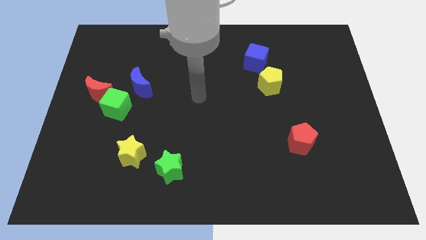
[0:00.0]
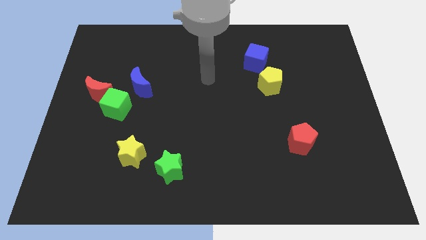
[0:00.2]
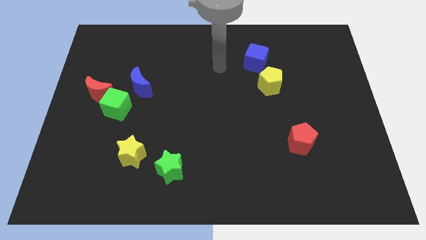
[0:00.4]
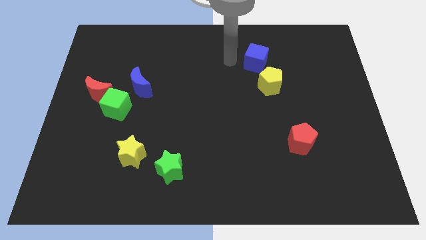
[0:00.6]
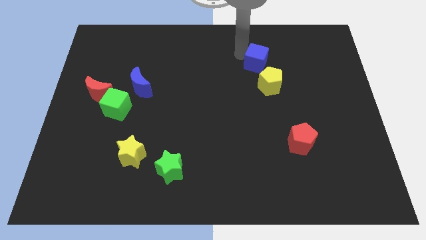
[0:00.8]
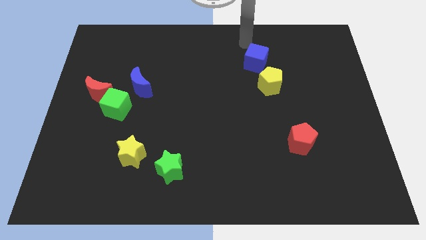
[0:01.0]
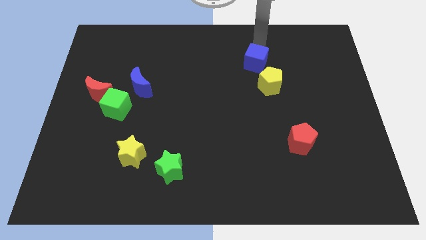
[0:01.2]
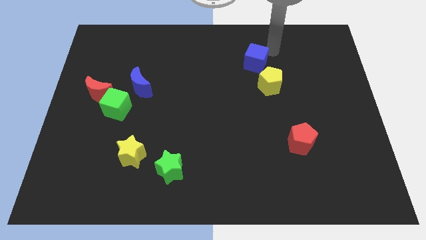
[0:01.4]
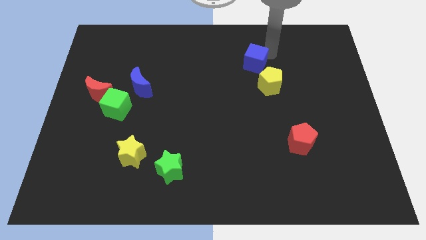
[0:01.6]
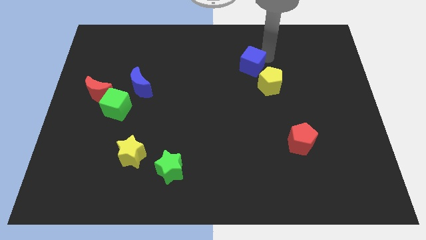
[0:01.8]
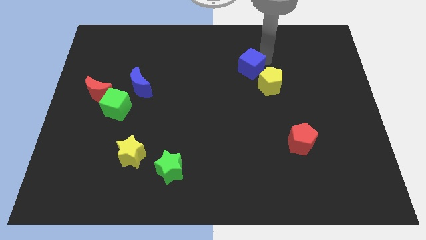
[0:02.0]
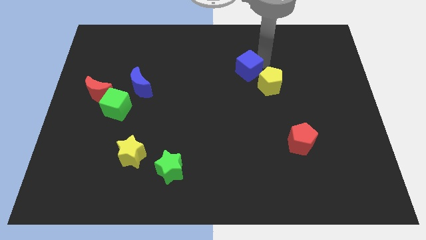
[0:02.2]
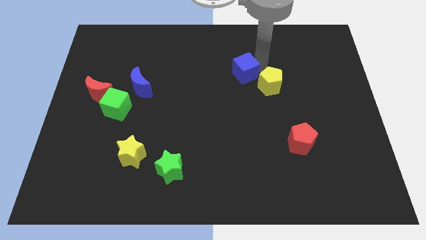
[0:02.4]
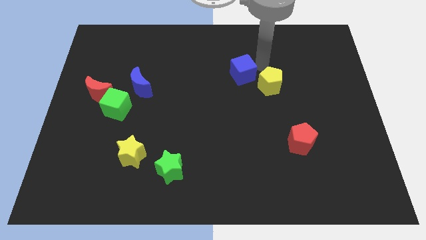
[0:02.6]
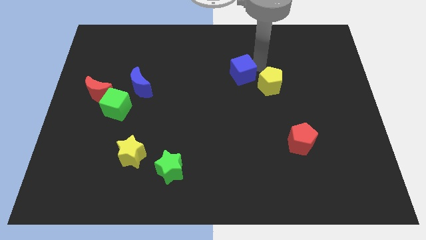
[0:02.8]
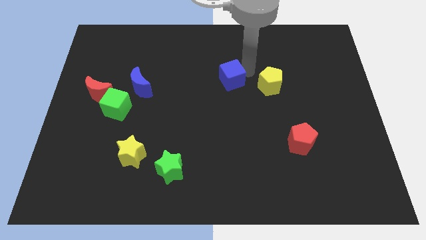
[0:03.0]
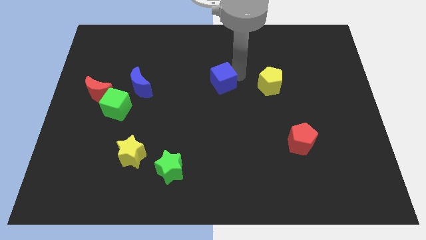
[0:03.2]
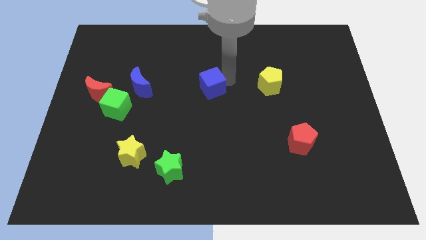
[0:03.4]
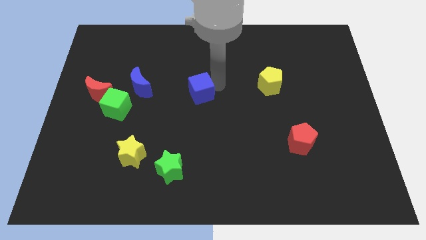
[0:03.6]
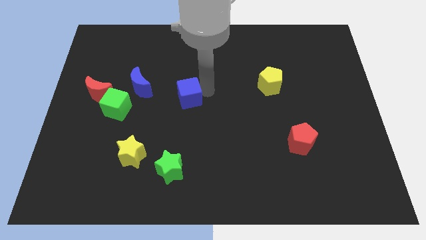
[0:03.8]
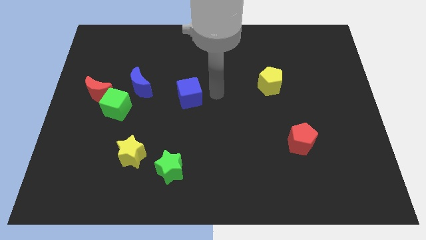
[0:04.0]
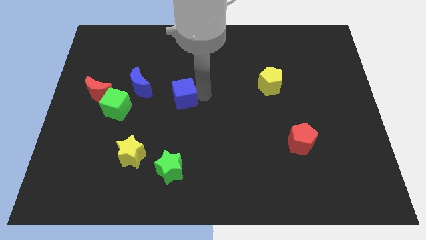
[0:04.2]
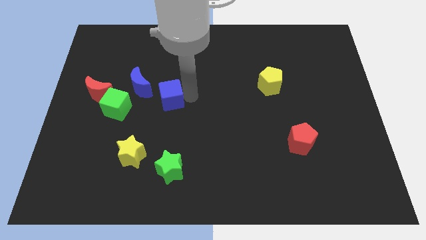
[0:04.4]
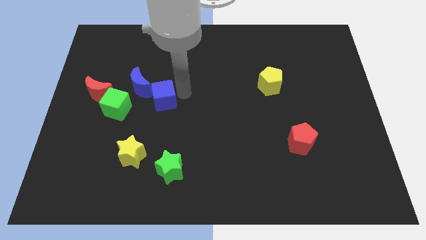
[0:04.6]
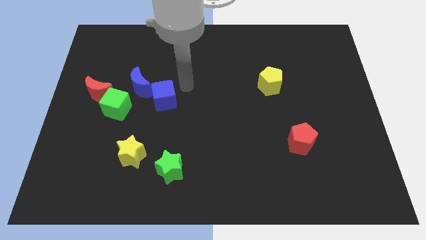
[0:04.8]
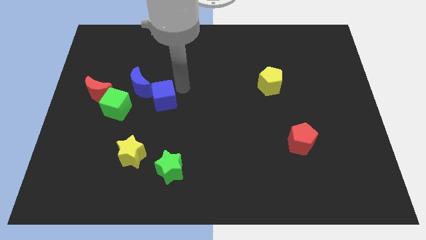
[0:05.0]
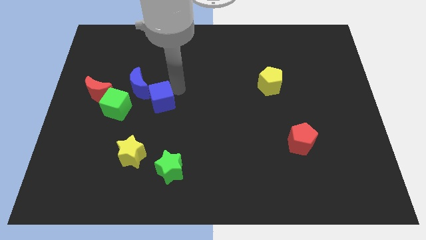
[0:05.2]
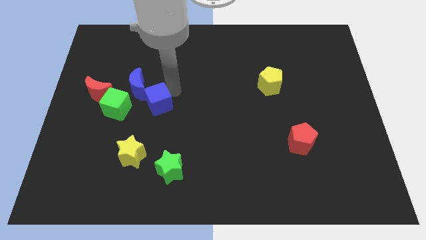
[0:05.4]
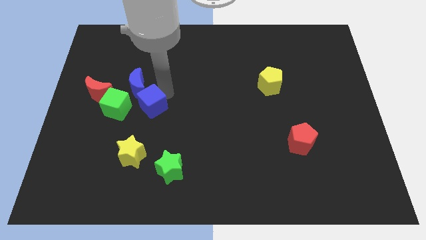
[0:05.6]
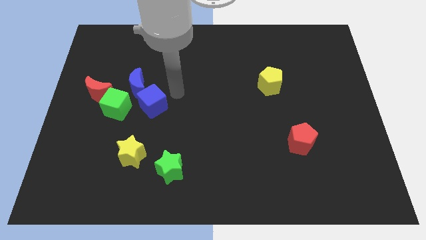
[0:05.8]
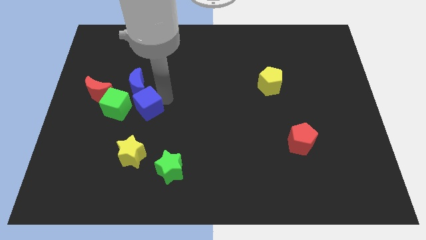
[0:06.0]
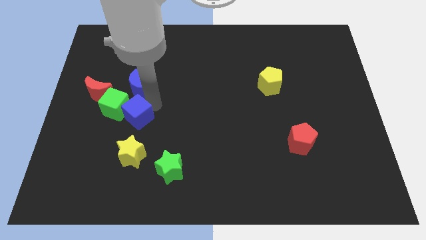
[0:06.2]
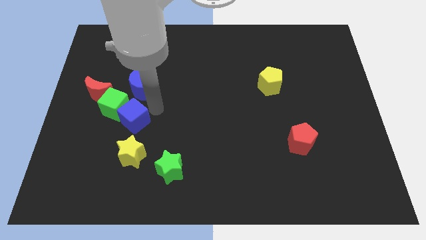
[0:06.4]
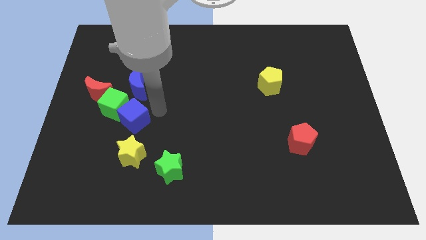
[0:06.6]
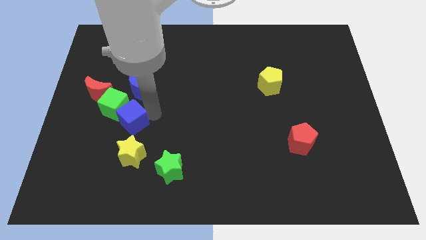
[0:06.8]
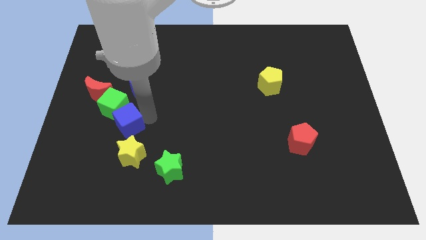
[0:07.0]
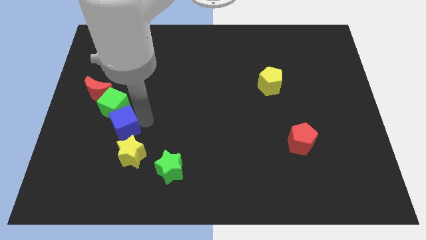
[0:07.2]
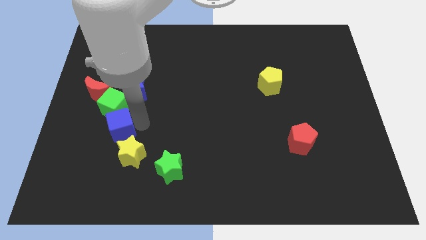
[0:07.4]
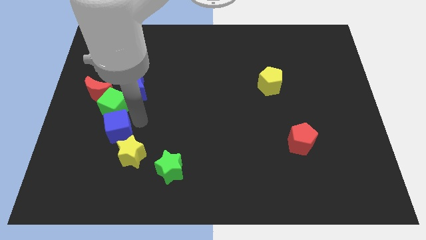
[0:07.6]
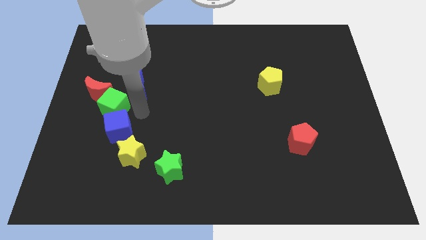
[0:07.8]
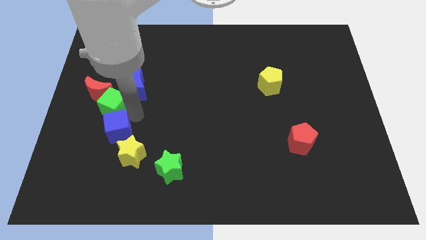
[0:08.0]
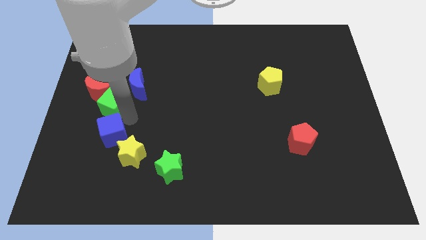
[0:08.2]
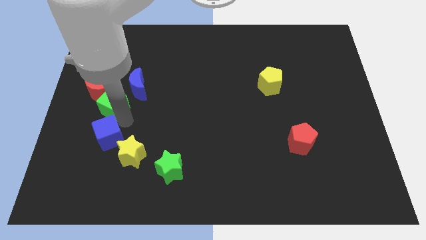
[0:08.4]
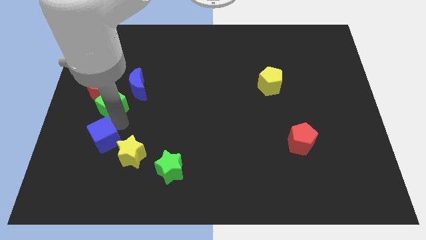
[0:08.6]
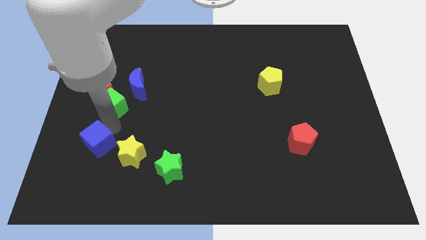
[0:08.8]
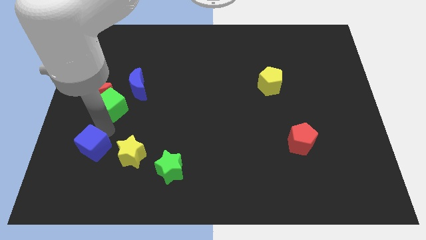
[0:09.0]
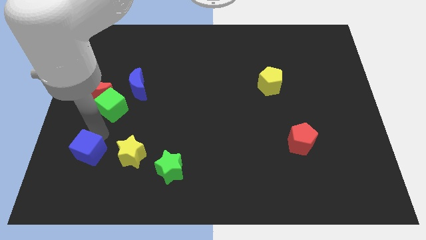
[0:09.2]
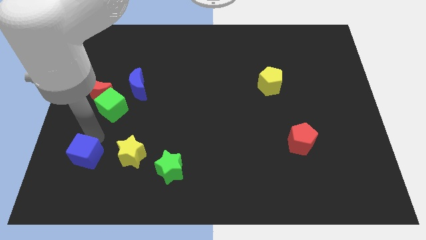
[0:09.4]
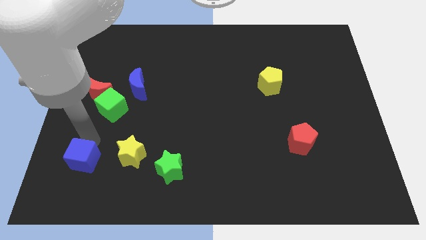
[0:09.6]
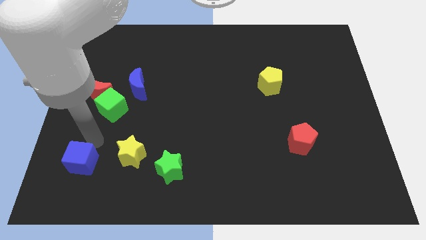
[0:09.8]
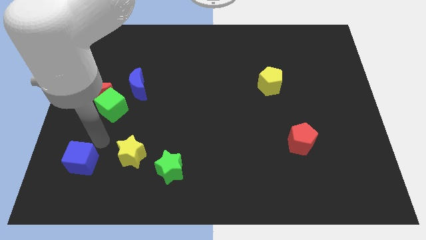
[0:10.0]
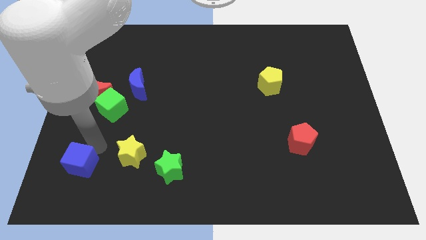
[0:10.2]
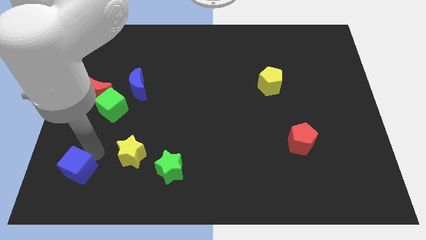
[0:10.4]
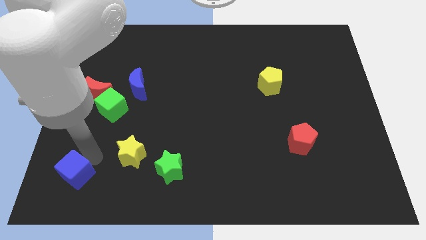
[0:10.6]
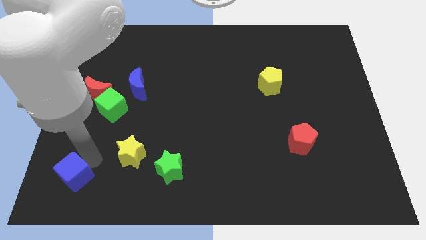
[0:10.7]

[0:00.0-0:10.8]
move the blue cube to the bottom left of the board
